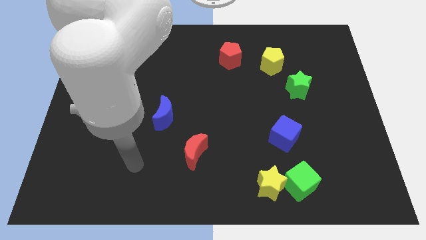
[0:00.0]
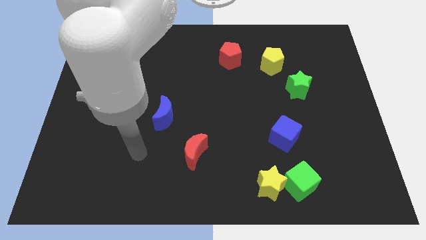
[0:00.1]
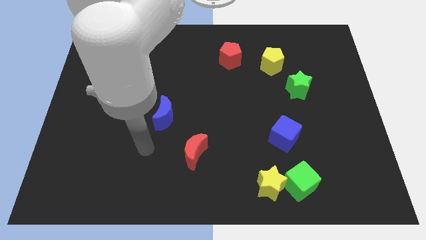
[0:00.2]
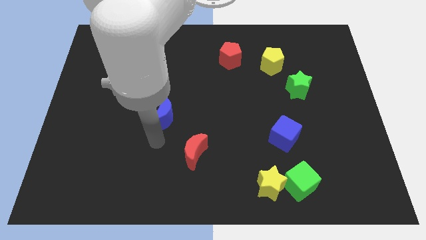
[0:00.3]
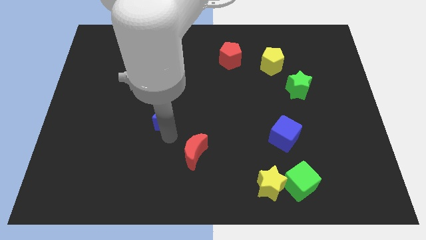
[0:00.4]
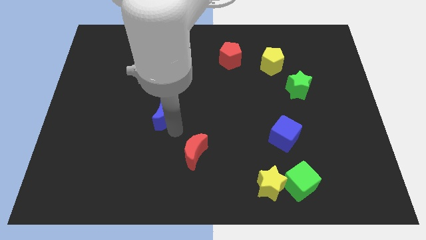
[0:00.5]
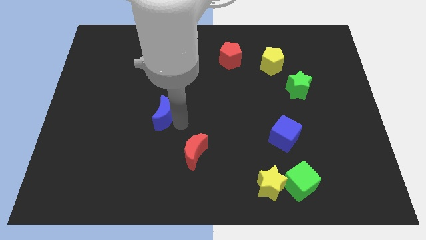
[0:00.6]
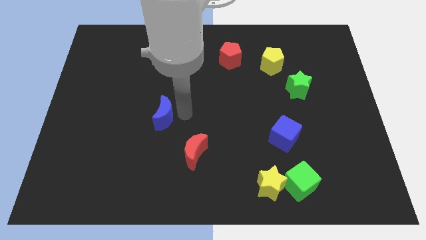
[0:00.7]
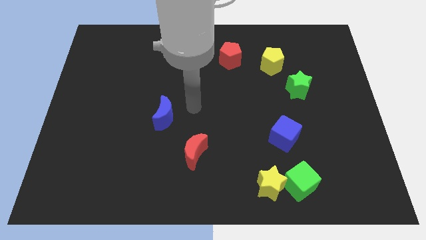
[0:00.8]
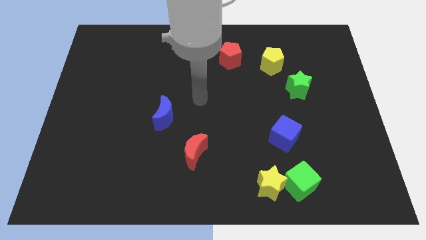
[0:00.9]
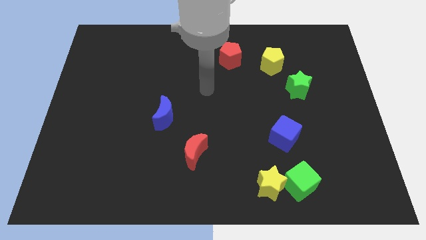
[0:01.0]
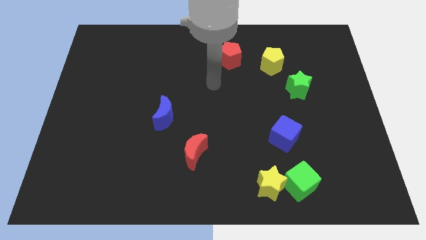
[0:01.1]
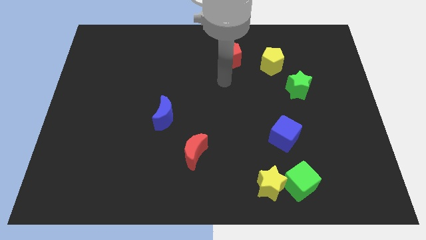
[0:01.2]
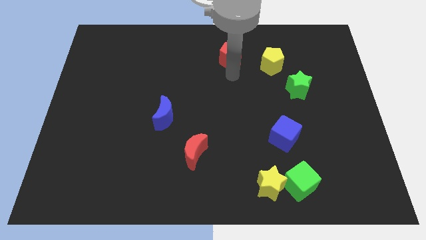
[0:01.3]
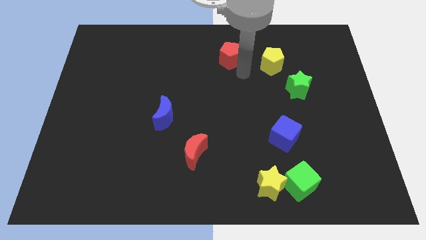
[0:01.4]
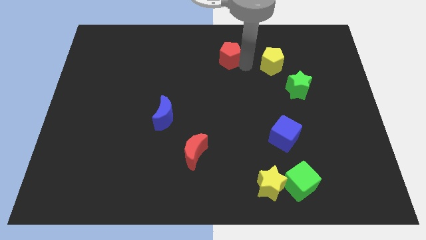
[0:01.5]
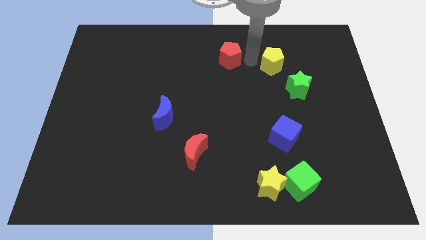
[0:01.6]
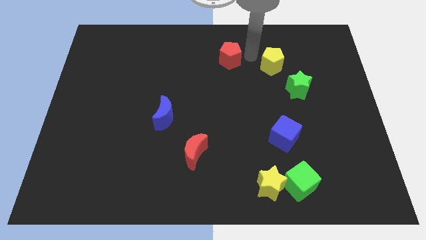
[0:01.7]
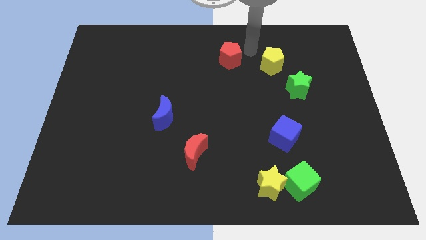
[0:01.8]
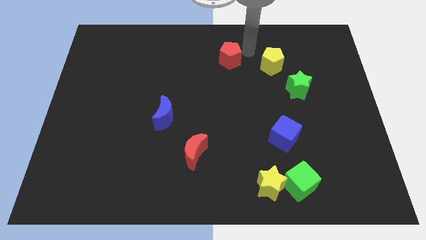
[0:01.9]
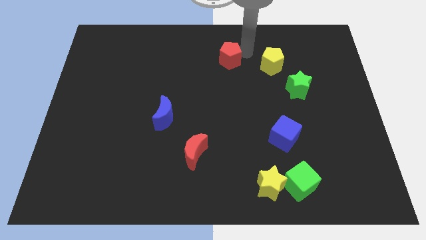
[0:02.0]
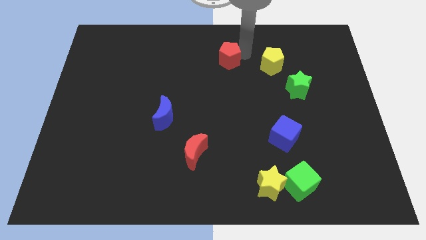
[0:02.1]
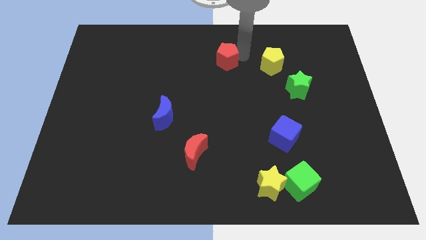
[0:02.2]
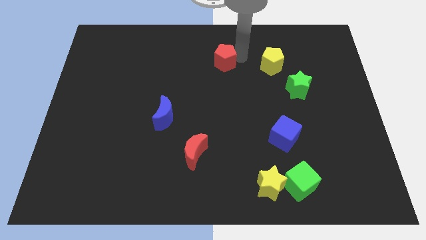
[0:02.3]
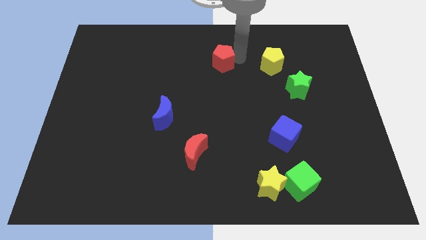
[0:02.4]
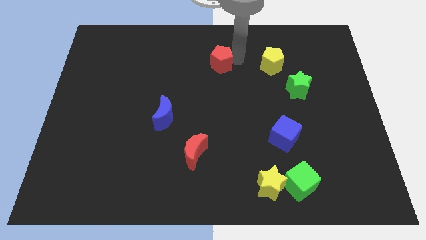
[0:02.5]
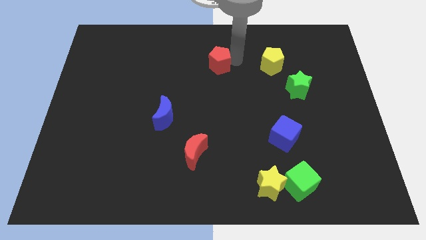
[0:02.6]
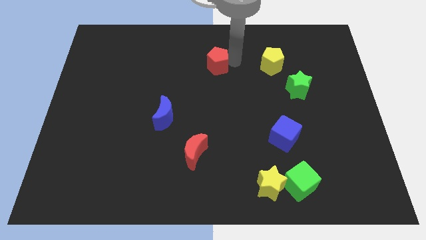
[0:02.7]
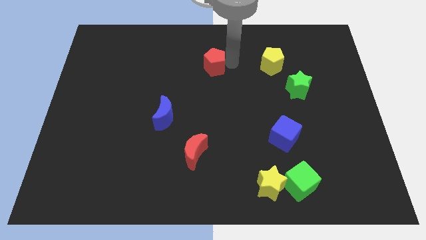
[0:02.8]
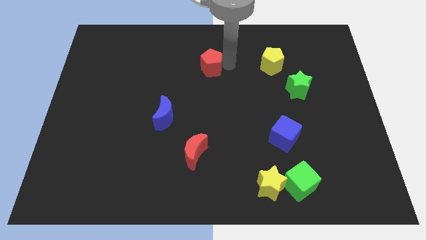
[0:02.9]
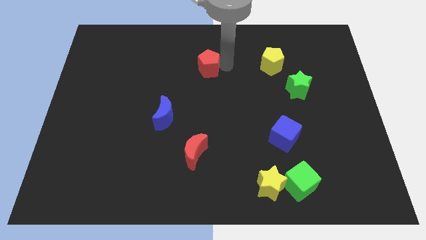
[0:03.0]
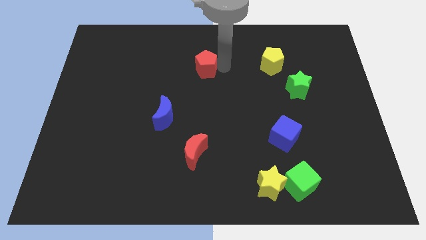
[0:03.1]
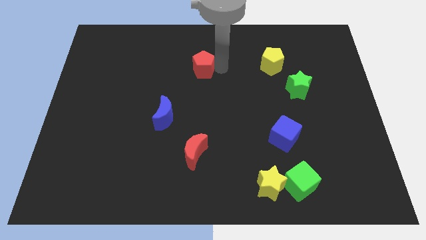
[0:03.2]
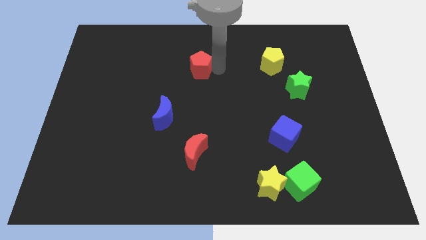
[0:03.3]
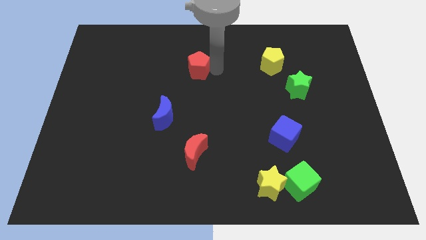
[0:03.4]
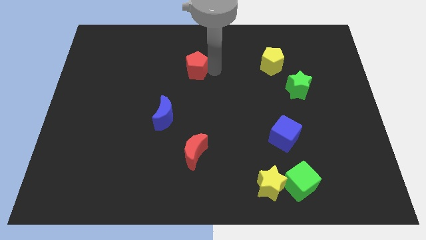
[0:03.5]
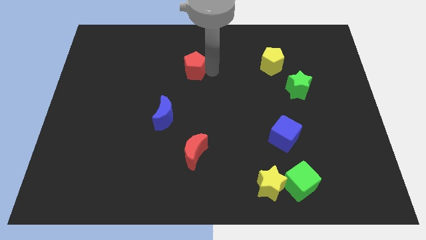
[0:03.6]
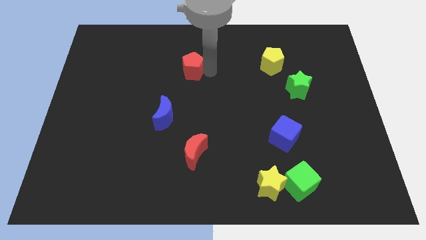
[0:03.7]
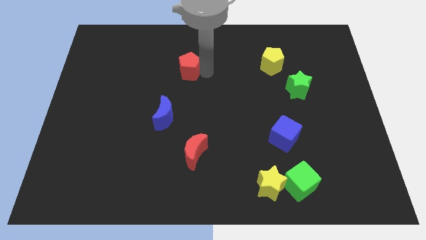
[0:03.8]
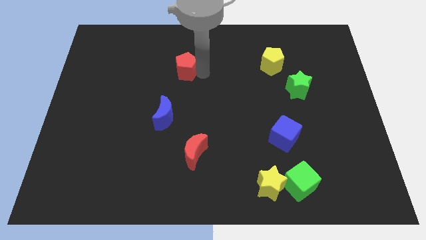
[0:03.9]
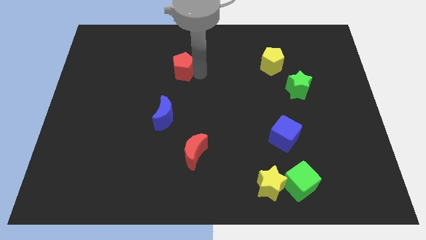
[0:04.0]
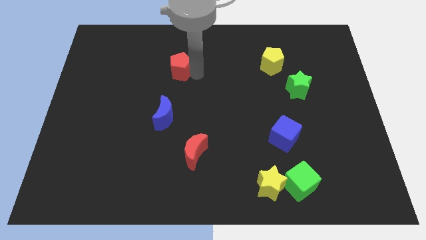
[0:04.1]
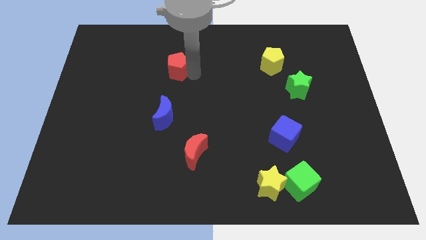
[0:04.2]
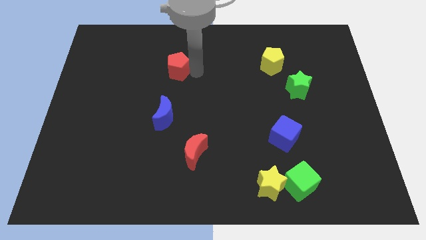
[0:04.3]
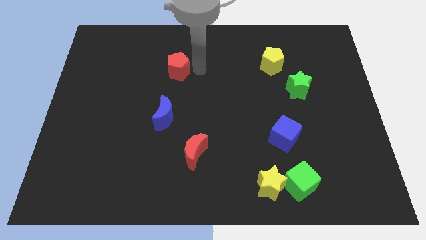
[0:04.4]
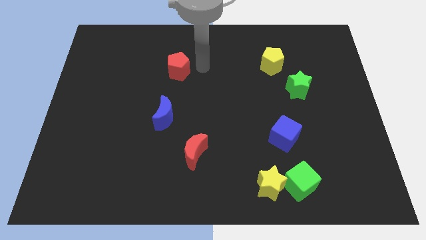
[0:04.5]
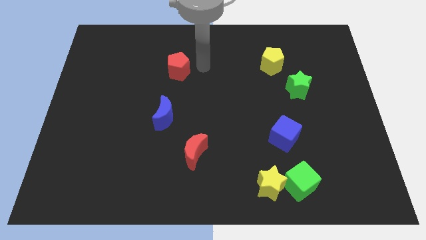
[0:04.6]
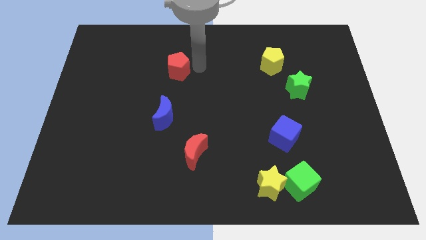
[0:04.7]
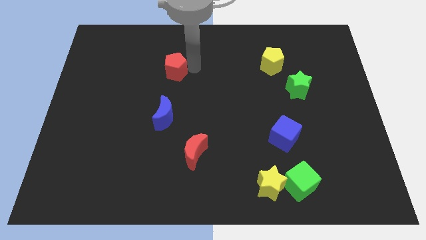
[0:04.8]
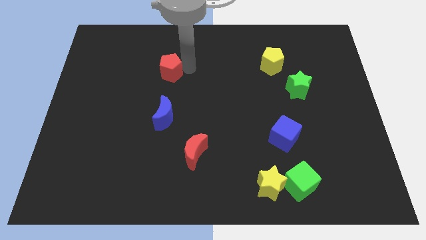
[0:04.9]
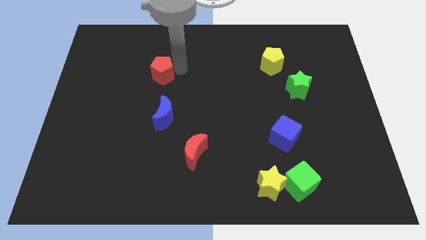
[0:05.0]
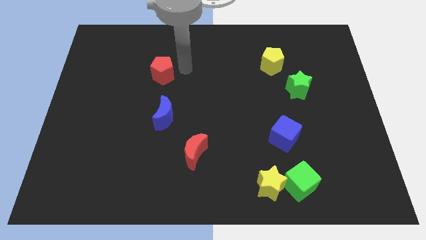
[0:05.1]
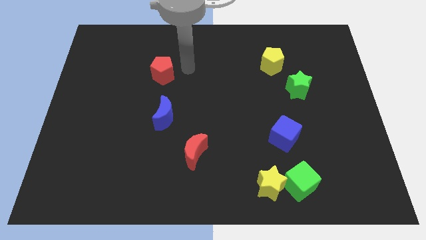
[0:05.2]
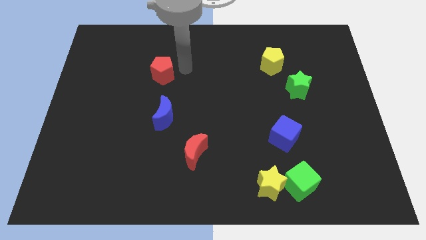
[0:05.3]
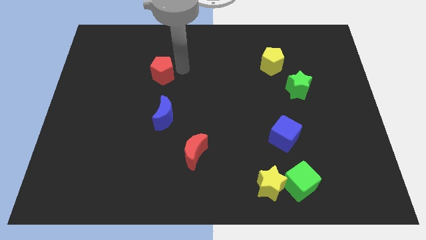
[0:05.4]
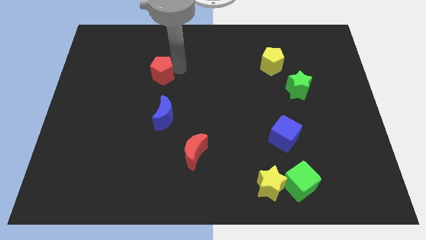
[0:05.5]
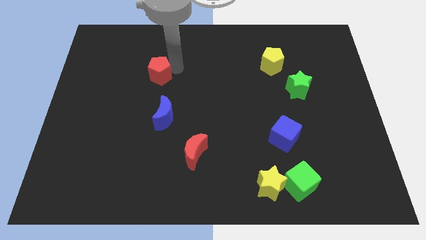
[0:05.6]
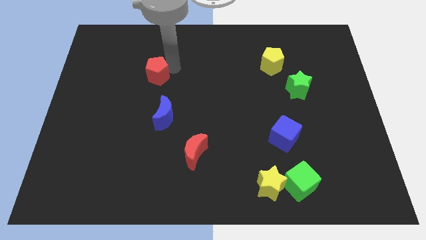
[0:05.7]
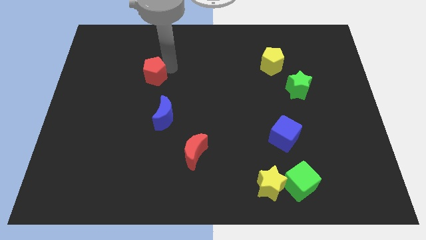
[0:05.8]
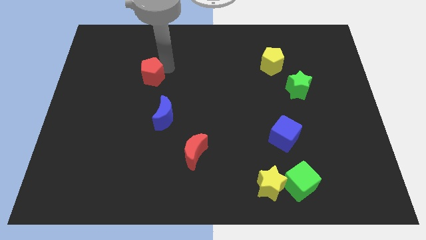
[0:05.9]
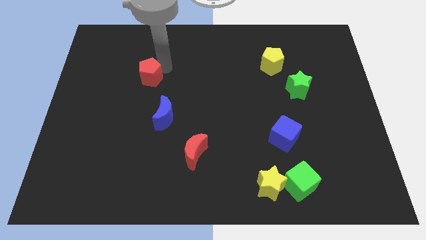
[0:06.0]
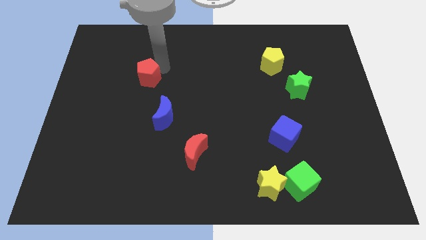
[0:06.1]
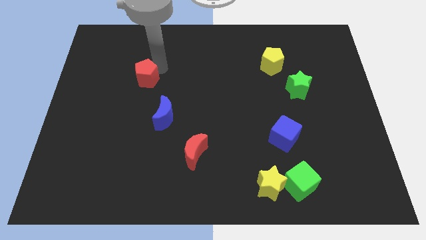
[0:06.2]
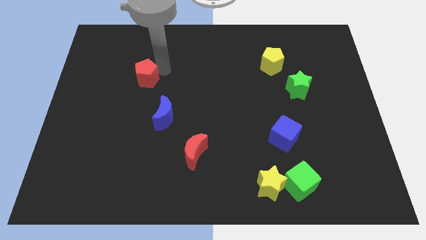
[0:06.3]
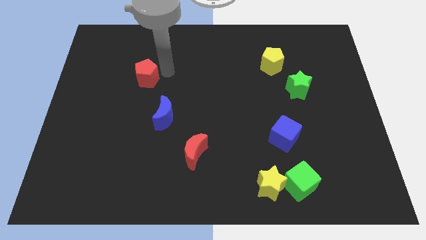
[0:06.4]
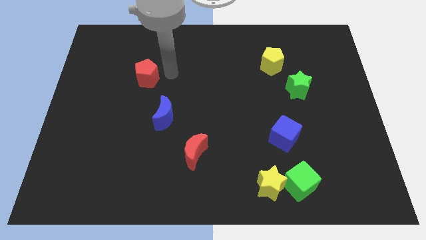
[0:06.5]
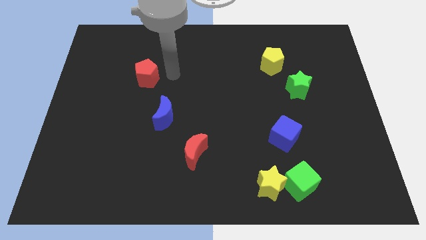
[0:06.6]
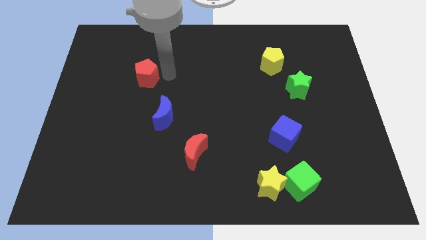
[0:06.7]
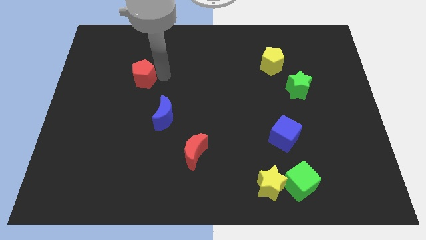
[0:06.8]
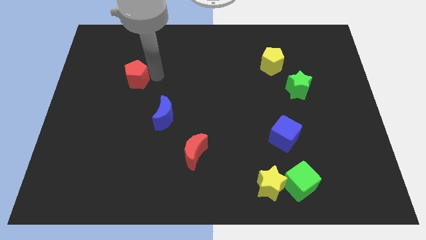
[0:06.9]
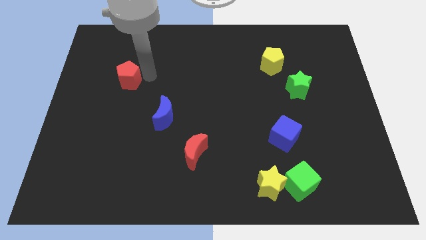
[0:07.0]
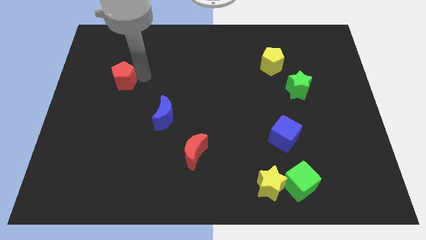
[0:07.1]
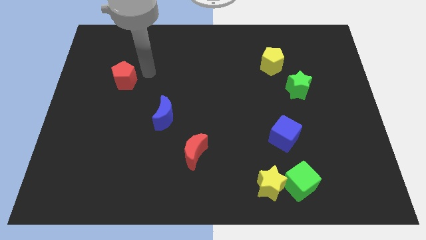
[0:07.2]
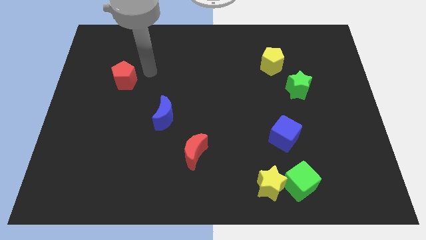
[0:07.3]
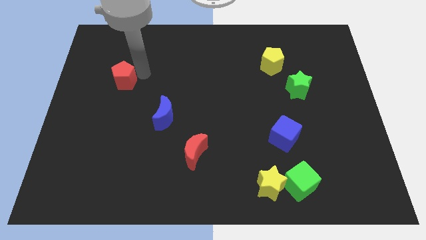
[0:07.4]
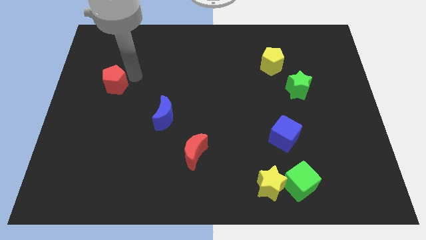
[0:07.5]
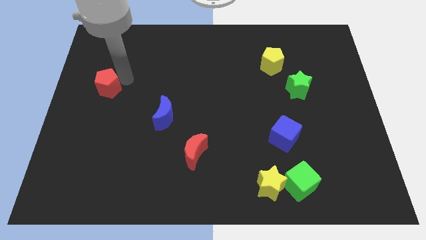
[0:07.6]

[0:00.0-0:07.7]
move the red pentagon to the left side of the board

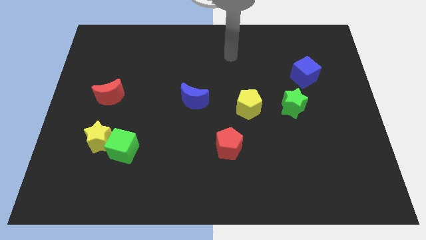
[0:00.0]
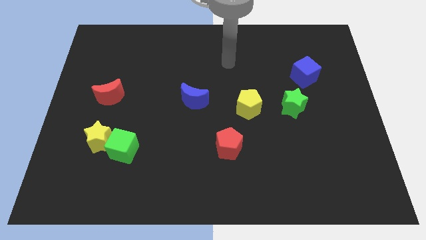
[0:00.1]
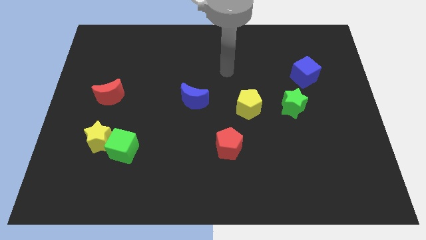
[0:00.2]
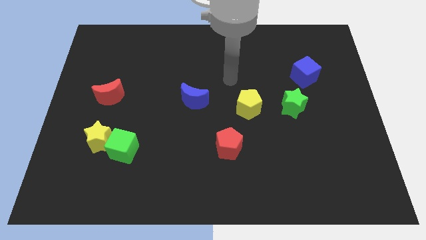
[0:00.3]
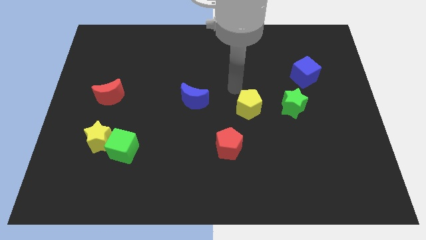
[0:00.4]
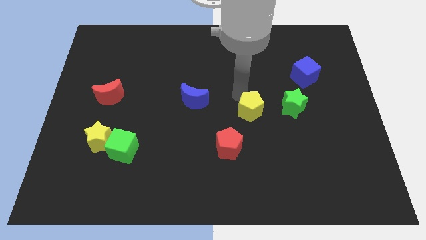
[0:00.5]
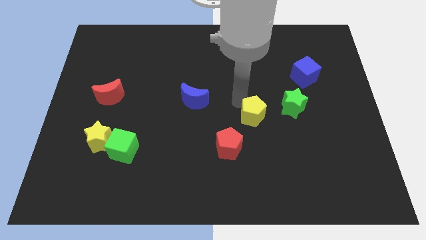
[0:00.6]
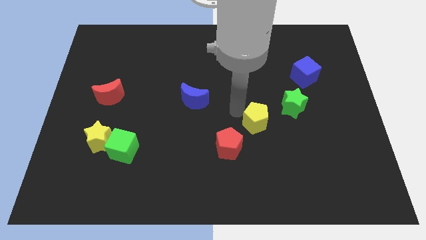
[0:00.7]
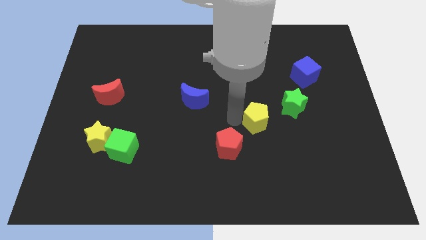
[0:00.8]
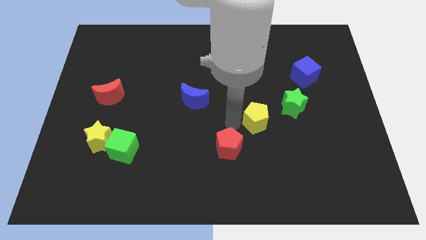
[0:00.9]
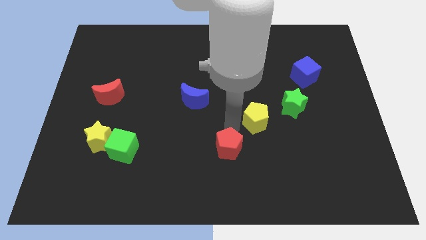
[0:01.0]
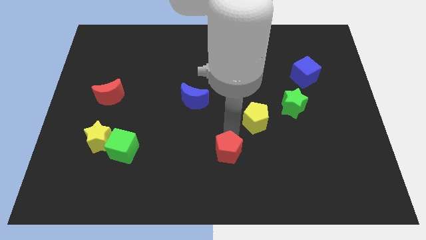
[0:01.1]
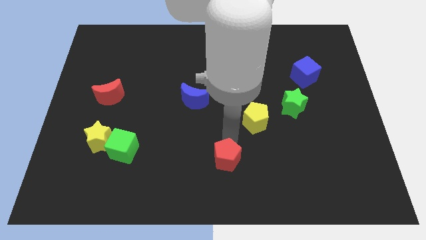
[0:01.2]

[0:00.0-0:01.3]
move the red pentagon to the bottom
